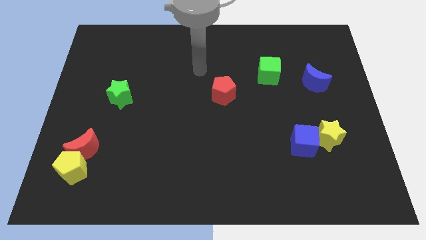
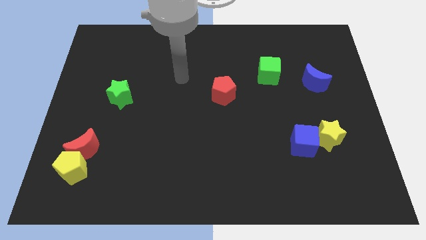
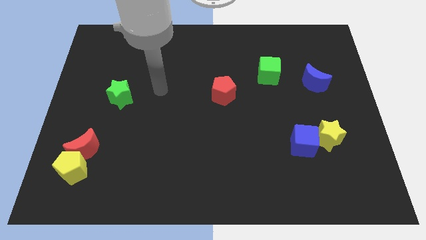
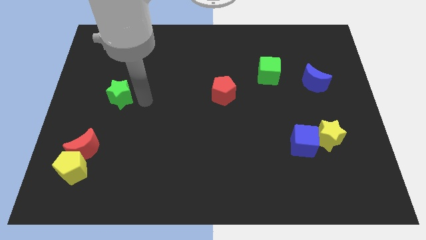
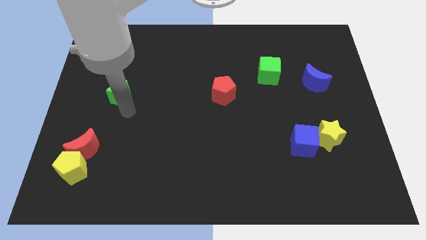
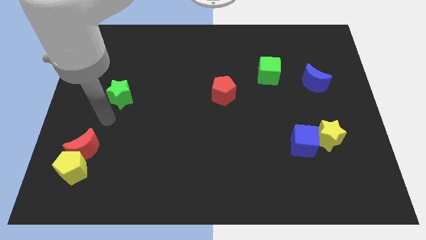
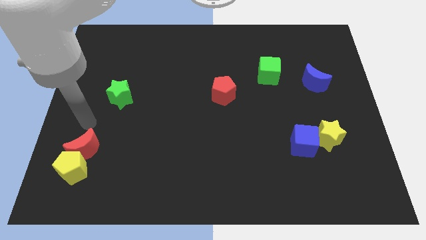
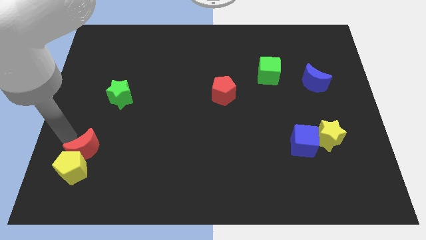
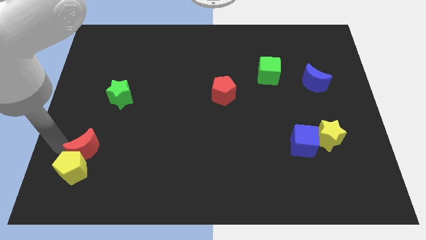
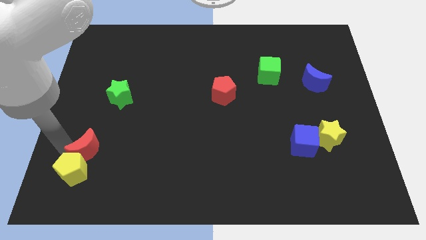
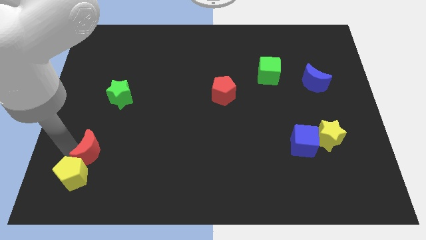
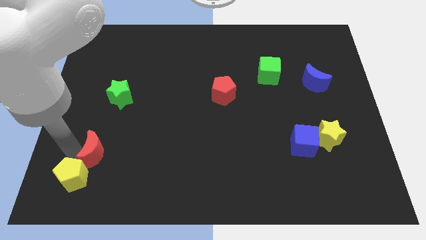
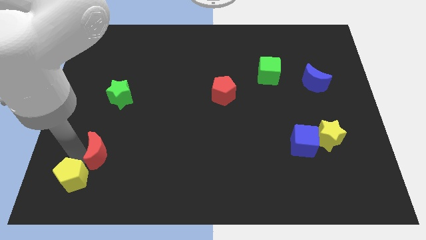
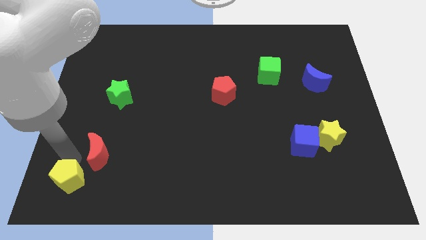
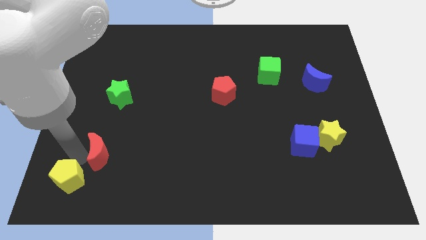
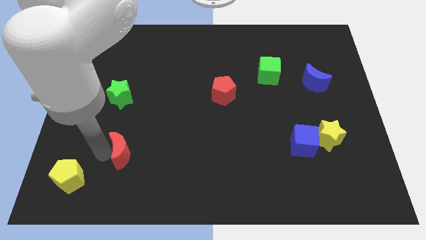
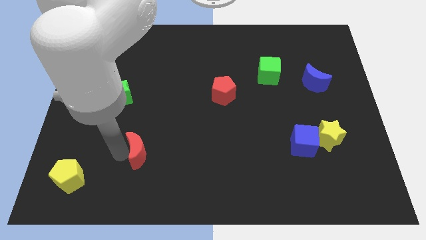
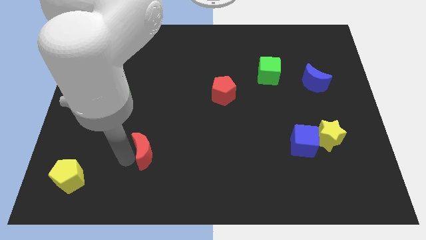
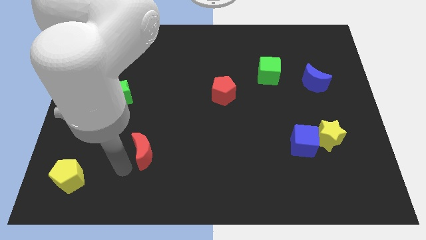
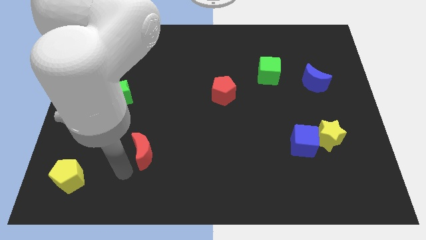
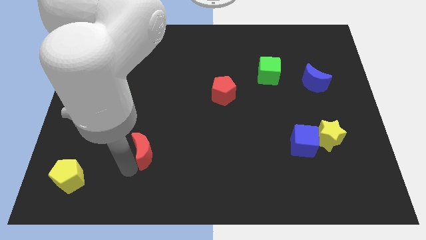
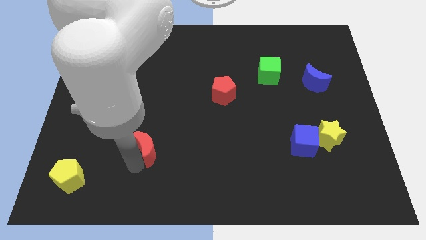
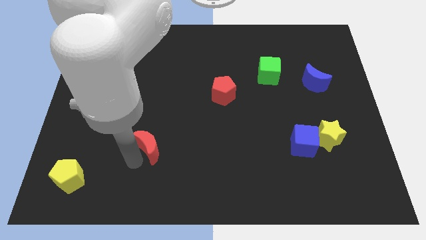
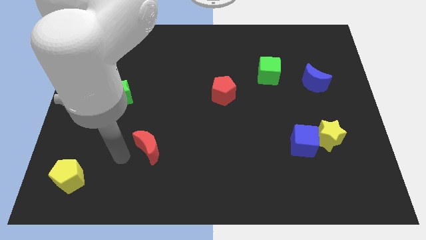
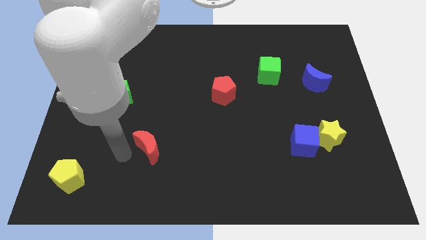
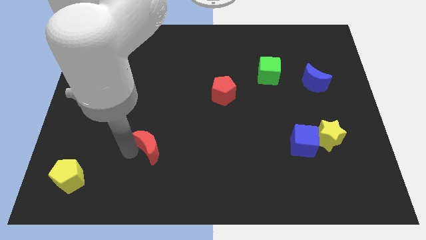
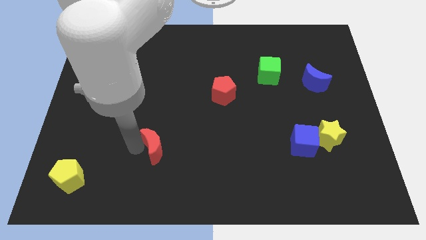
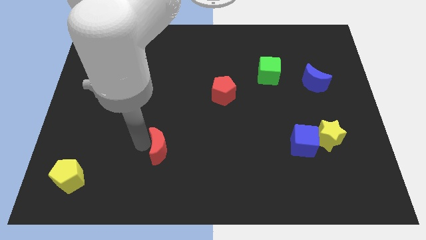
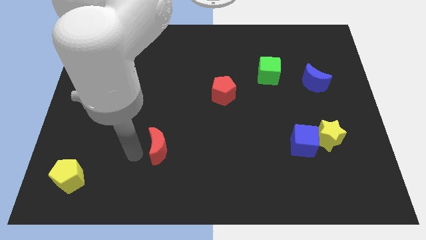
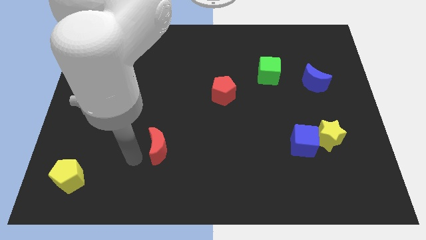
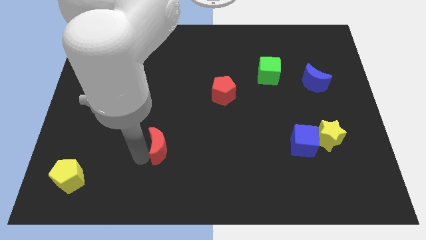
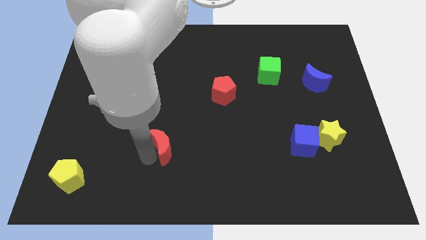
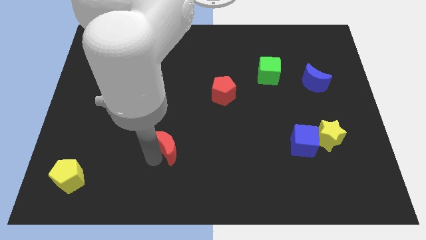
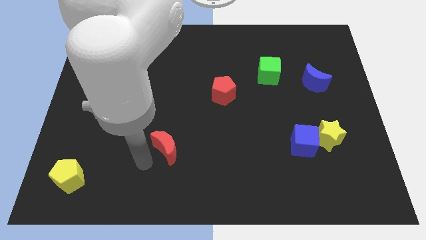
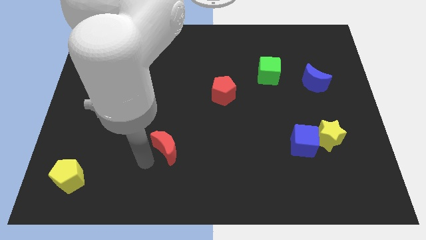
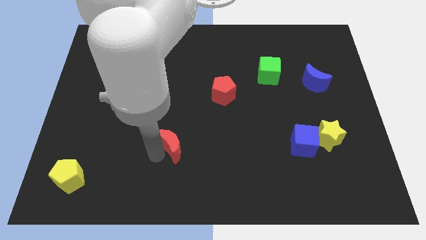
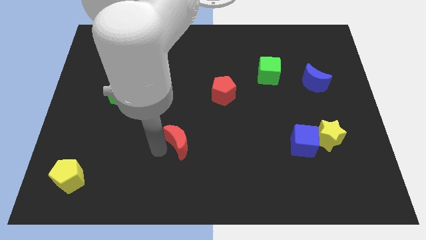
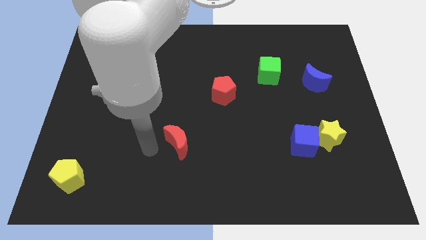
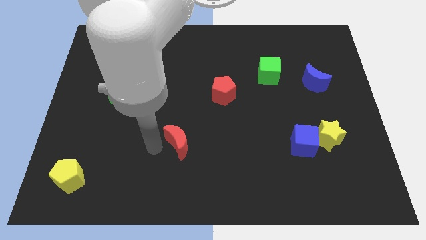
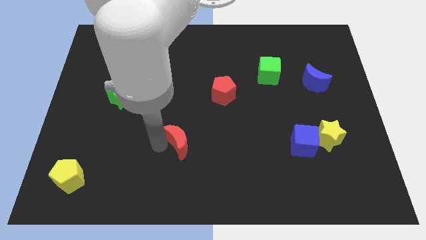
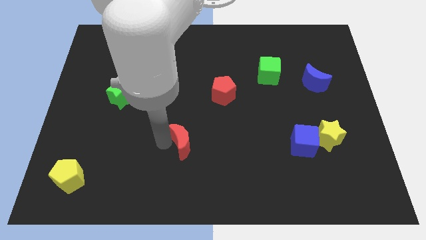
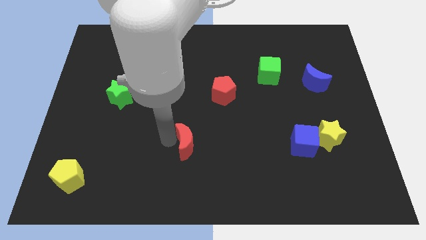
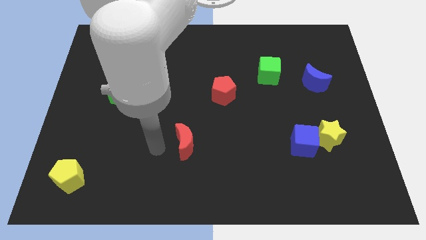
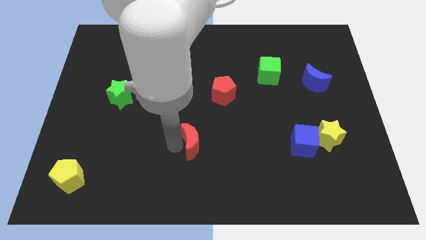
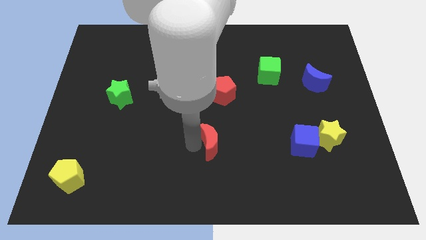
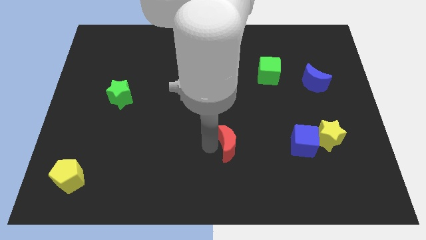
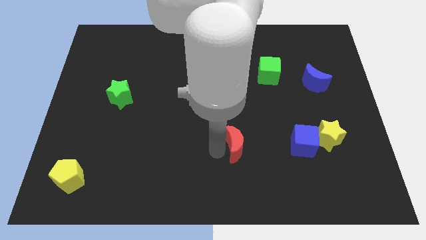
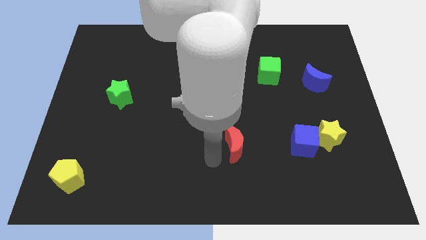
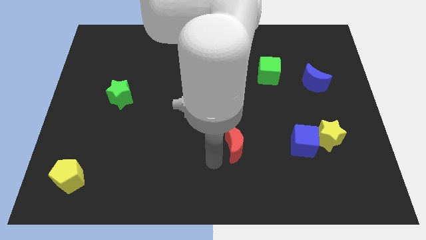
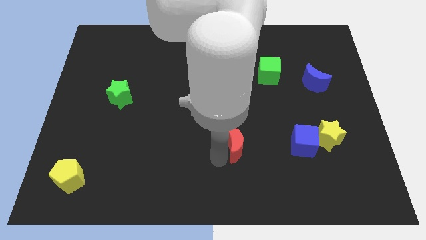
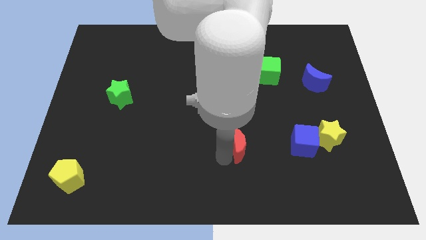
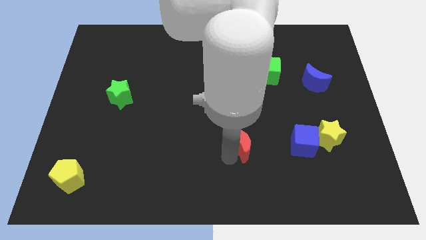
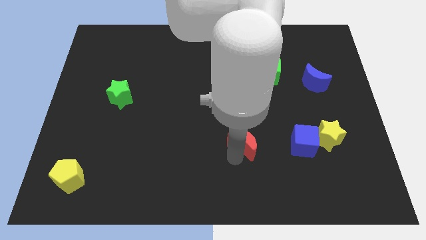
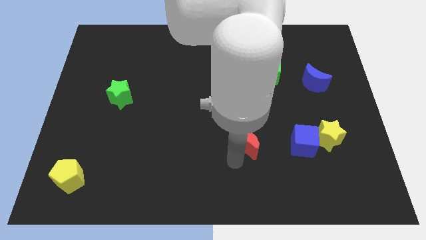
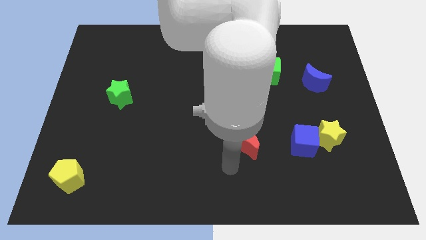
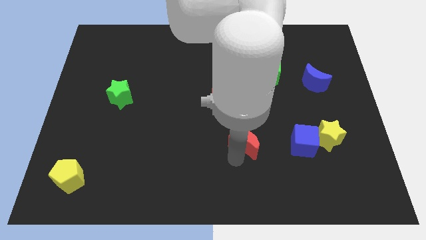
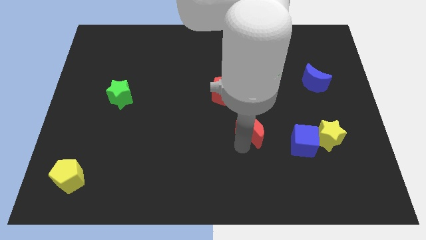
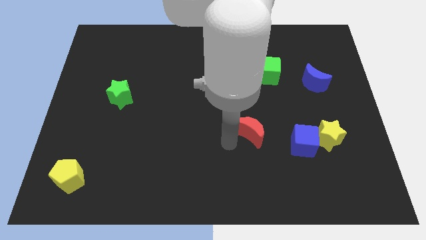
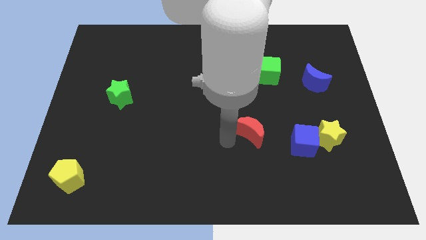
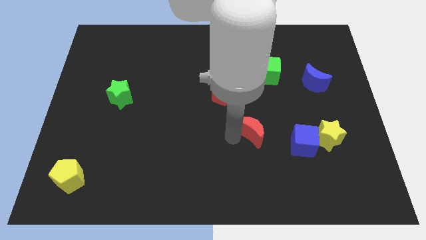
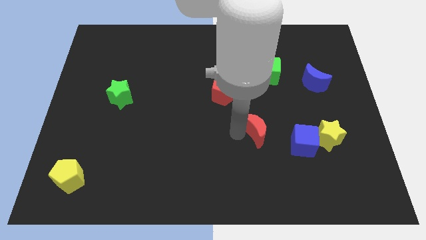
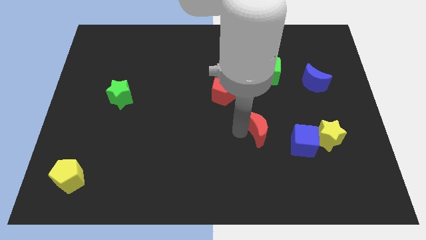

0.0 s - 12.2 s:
put the red moon to the top left of the blue cube

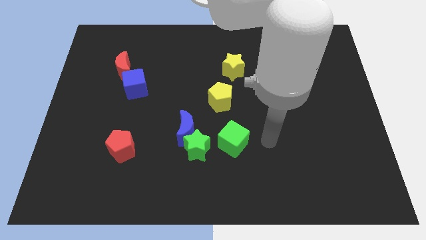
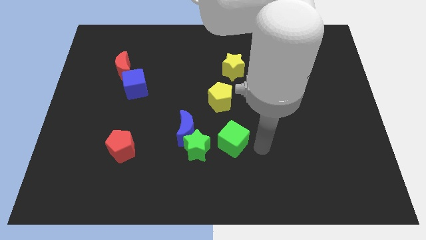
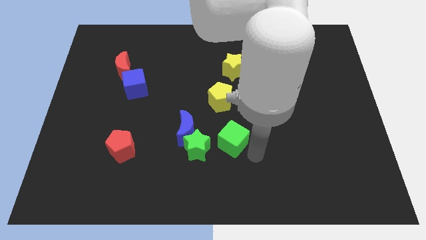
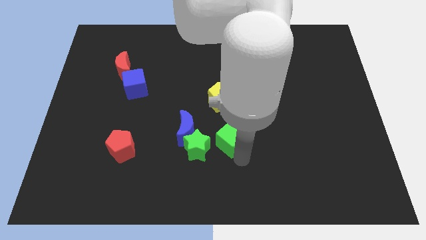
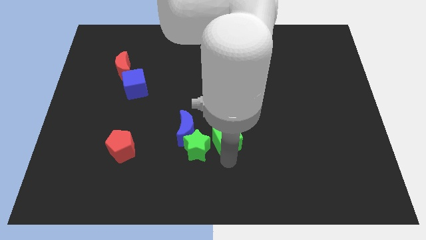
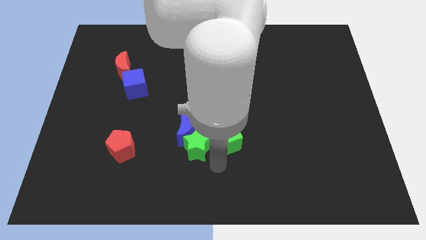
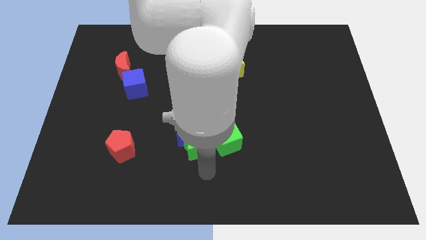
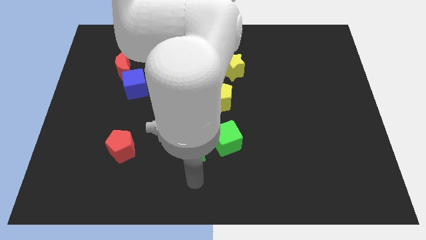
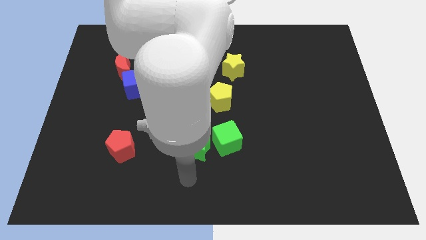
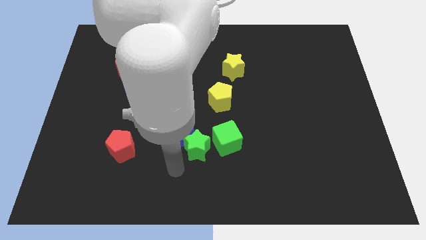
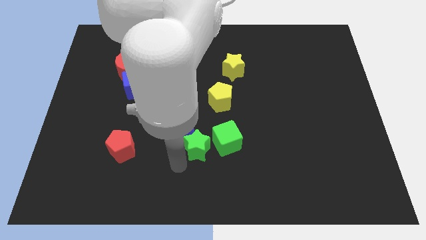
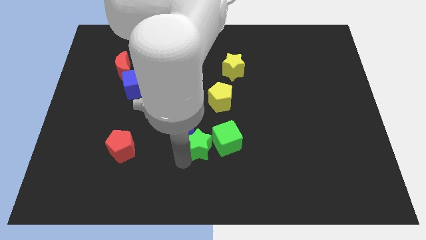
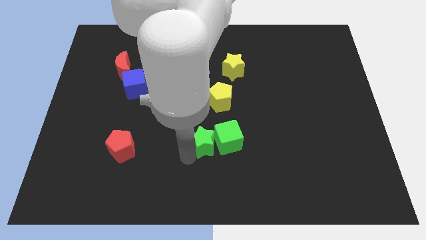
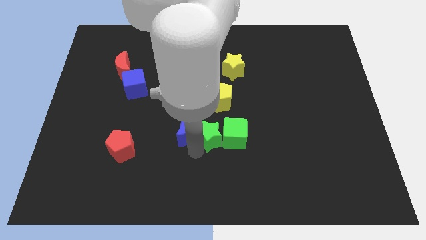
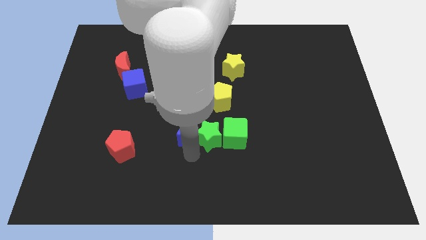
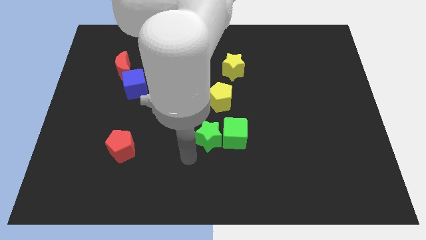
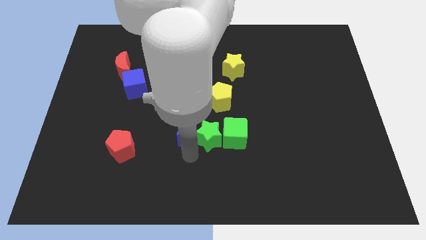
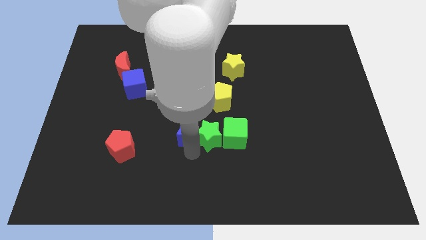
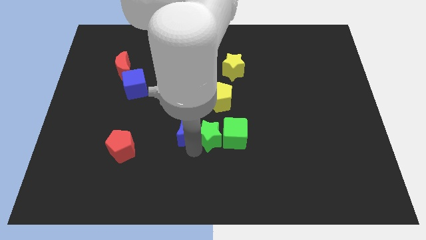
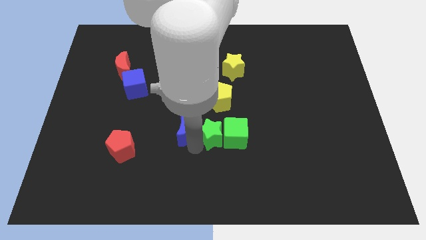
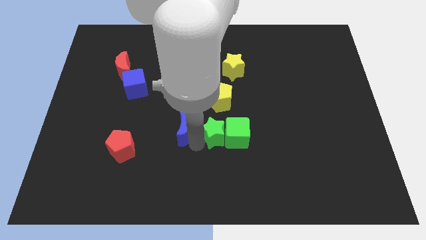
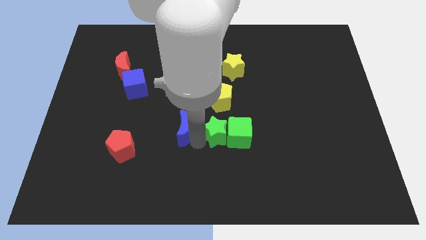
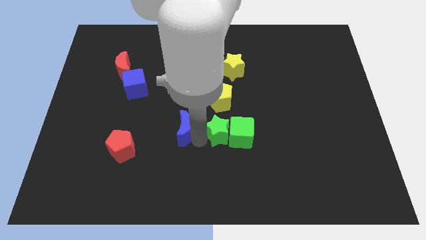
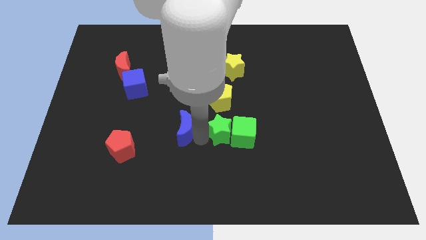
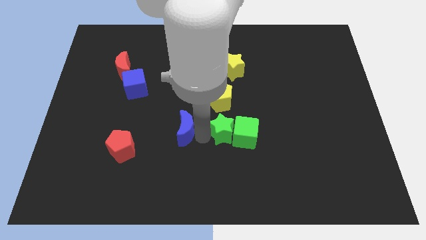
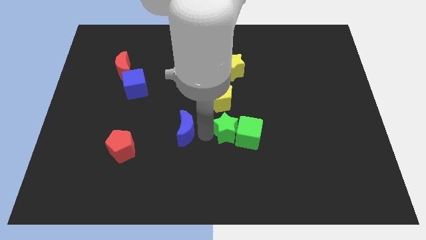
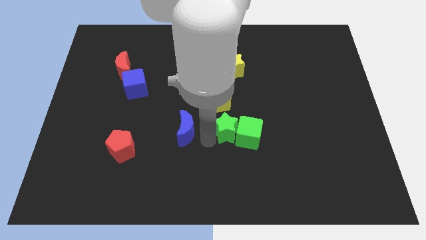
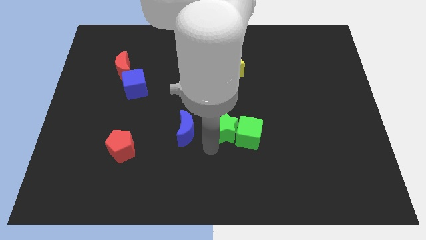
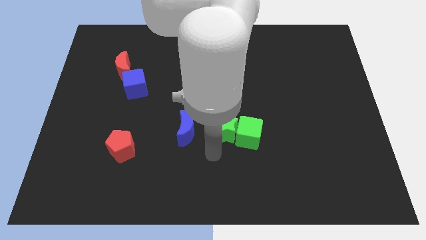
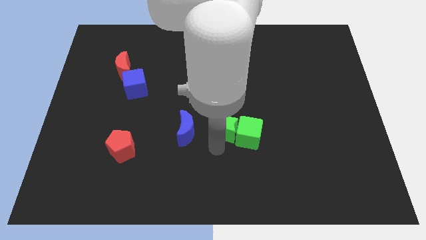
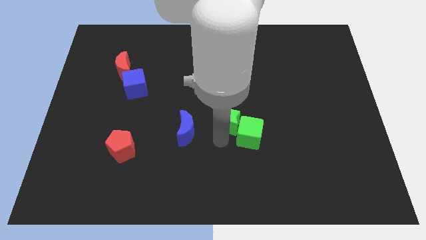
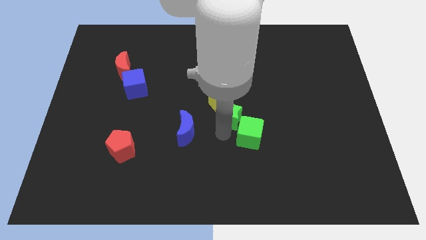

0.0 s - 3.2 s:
put the green star to the top side of the green cube
